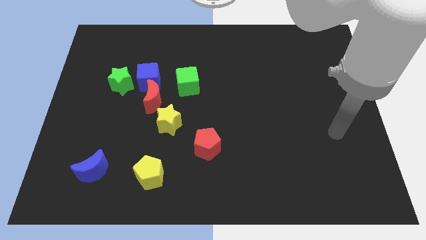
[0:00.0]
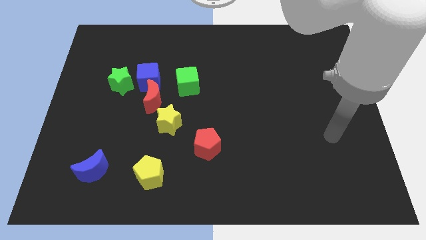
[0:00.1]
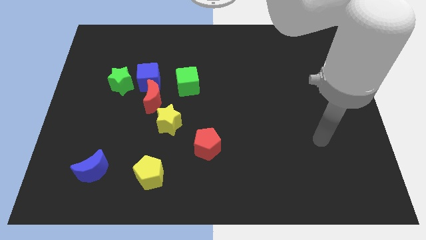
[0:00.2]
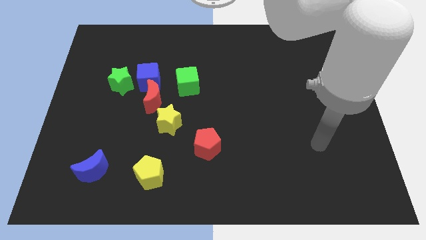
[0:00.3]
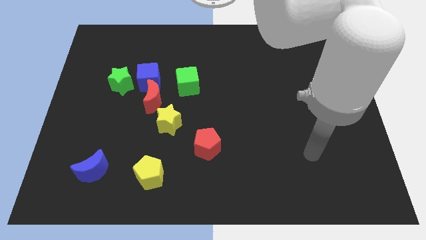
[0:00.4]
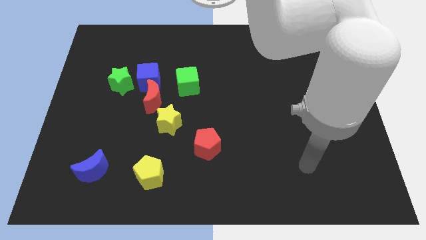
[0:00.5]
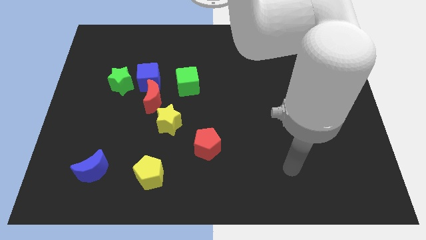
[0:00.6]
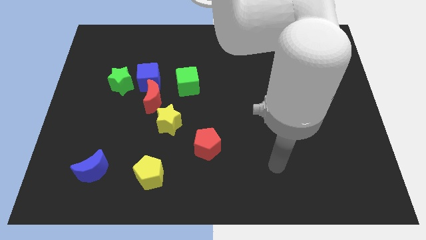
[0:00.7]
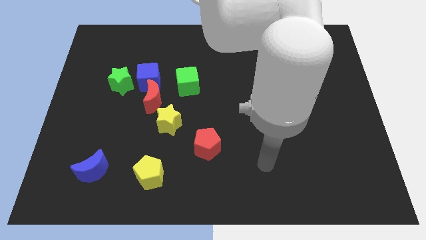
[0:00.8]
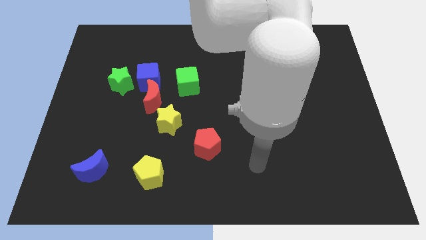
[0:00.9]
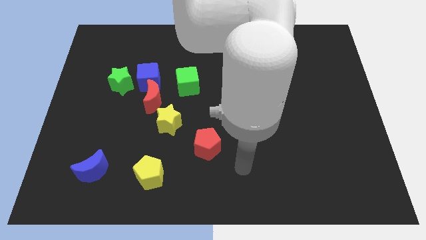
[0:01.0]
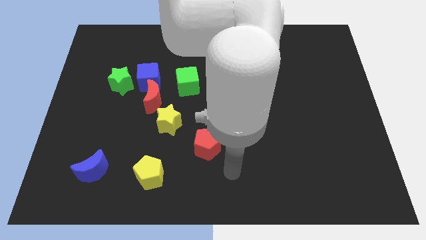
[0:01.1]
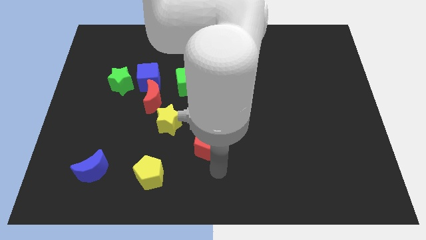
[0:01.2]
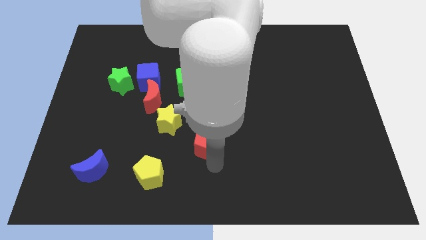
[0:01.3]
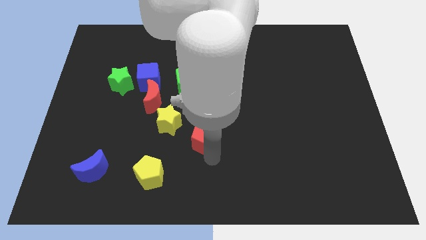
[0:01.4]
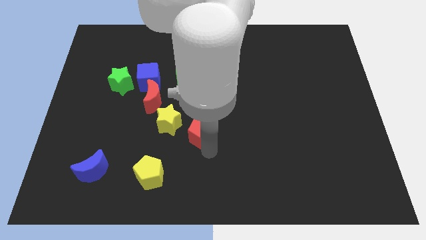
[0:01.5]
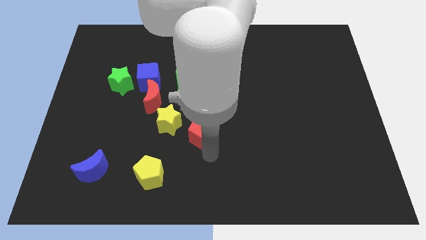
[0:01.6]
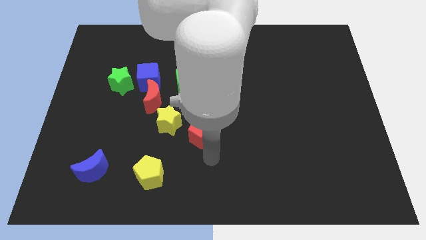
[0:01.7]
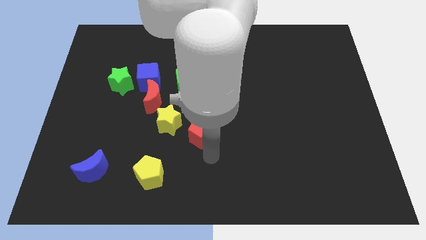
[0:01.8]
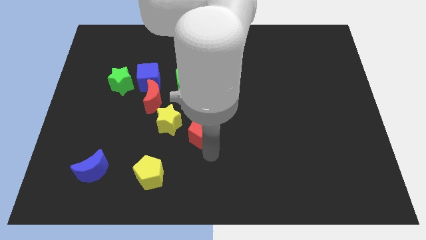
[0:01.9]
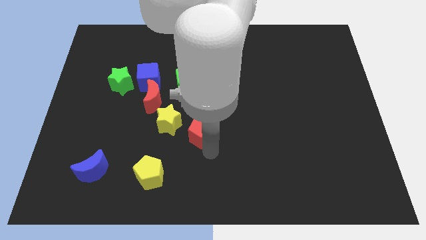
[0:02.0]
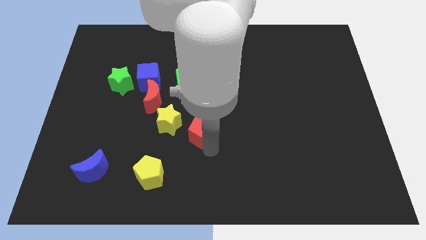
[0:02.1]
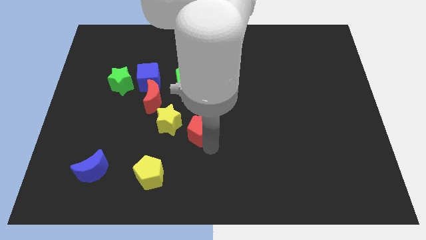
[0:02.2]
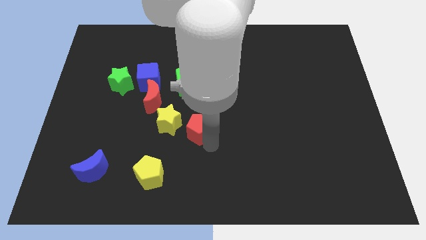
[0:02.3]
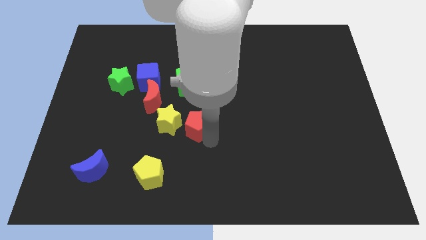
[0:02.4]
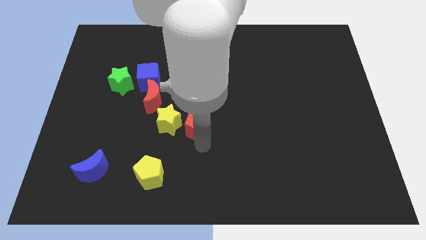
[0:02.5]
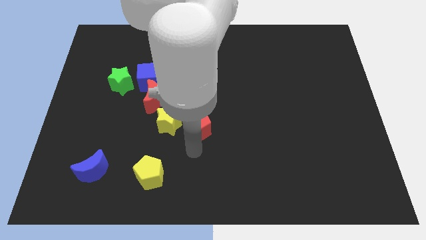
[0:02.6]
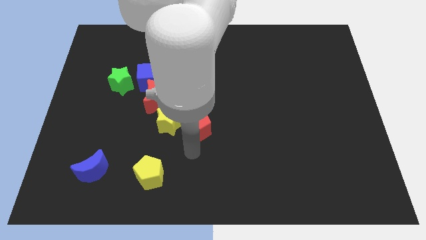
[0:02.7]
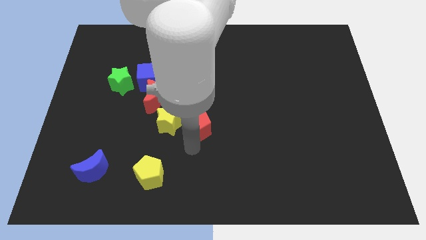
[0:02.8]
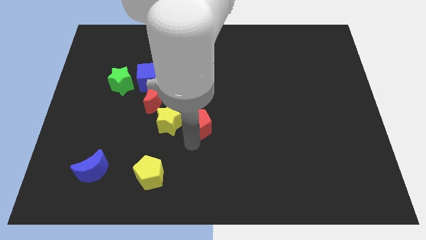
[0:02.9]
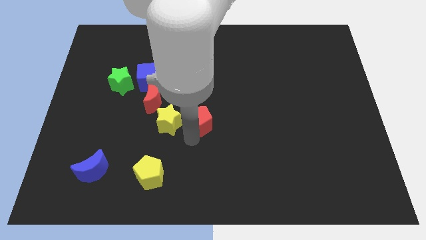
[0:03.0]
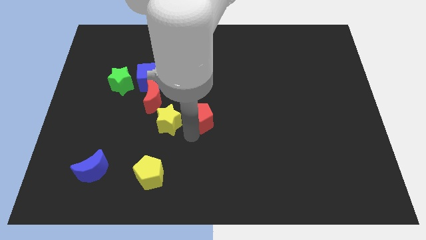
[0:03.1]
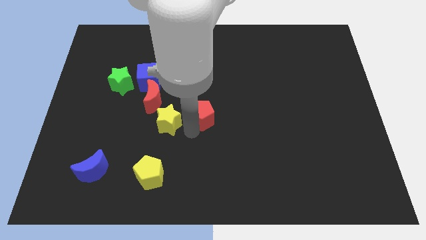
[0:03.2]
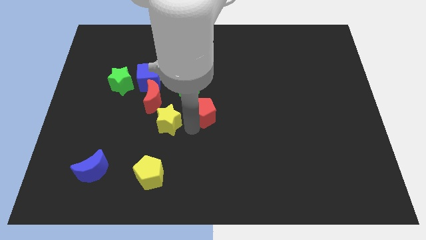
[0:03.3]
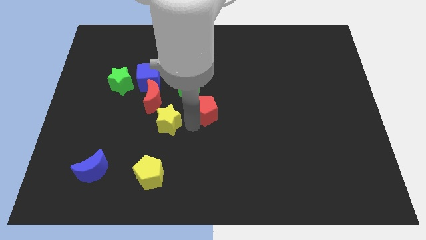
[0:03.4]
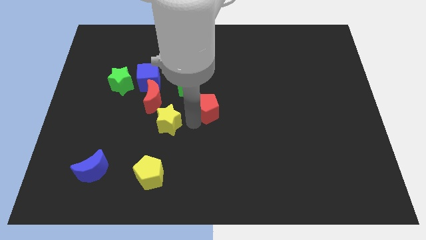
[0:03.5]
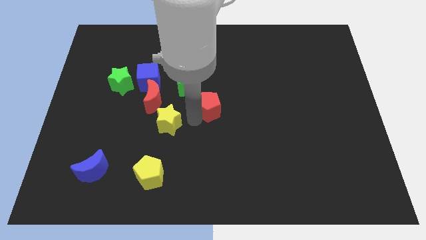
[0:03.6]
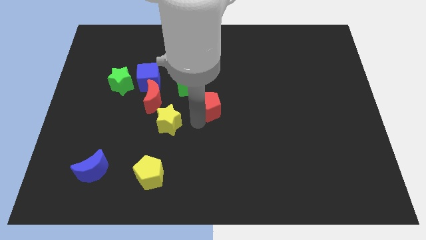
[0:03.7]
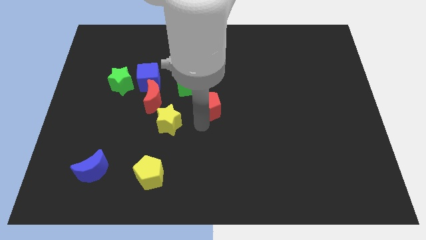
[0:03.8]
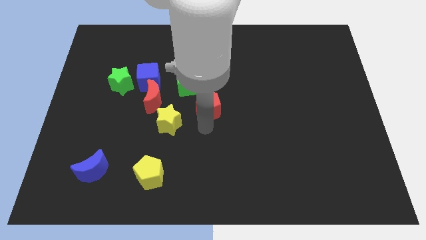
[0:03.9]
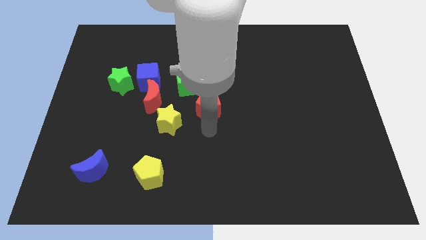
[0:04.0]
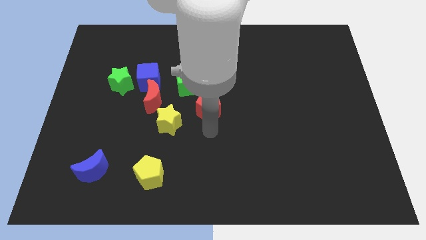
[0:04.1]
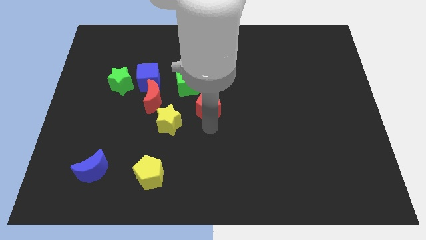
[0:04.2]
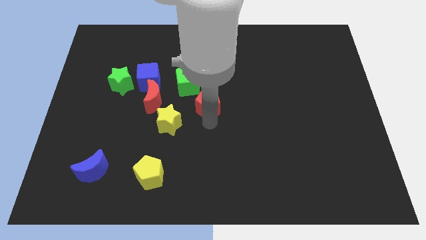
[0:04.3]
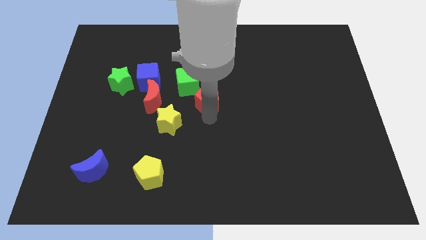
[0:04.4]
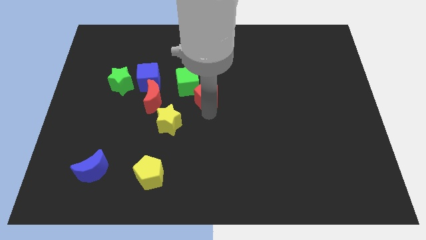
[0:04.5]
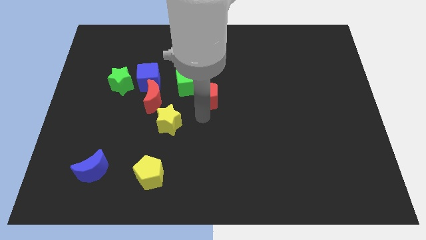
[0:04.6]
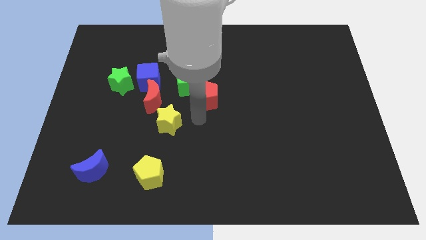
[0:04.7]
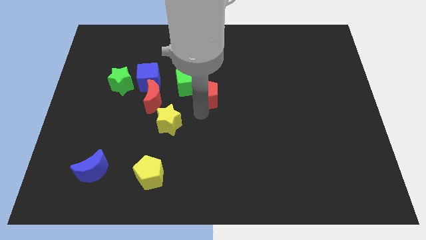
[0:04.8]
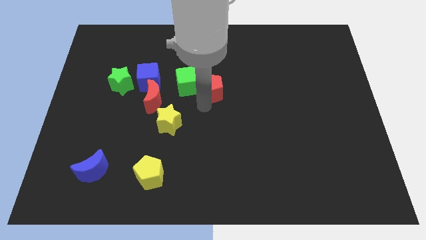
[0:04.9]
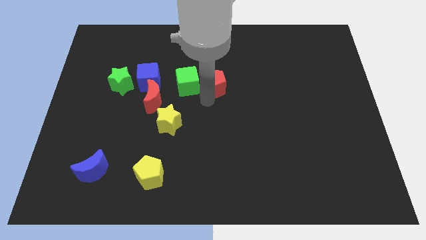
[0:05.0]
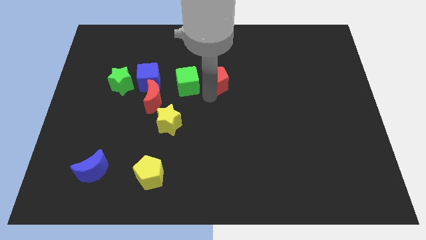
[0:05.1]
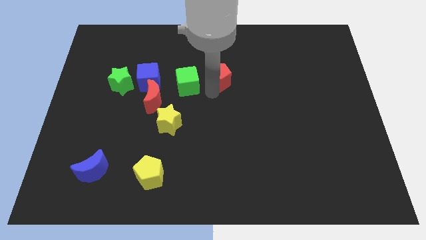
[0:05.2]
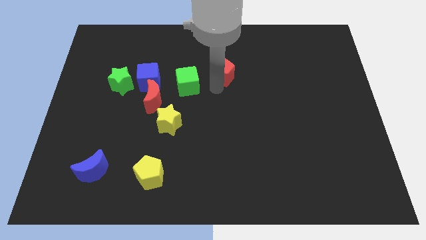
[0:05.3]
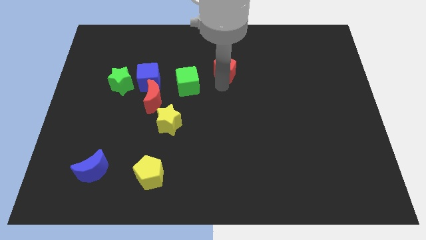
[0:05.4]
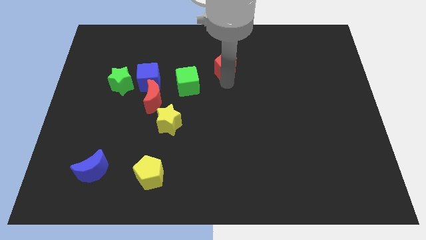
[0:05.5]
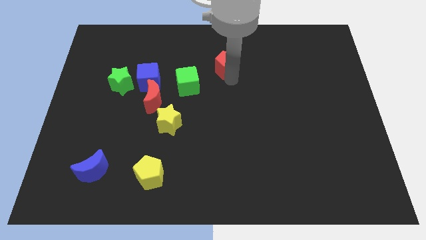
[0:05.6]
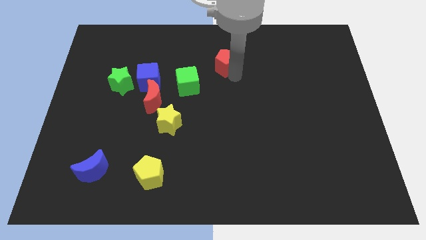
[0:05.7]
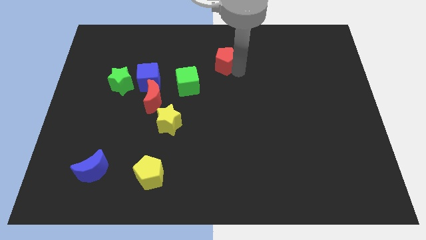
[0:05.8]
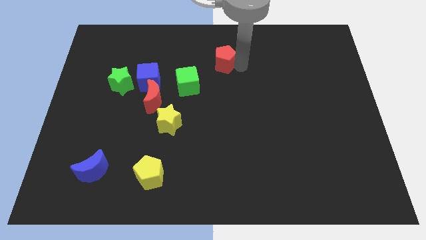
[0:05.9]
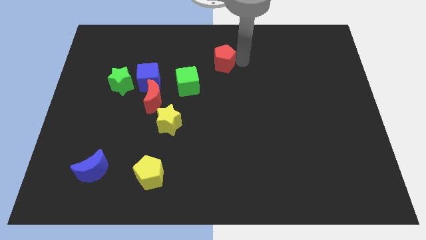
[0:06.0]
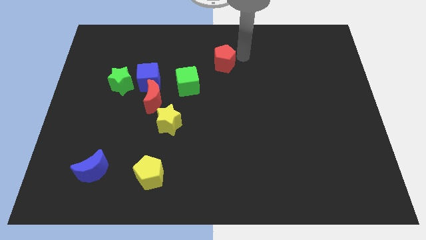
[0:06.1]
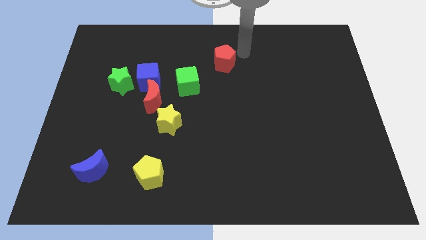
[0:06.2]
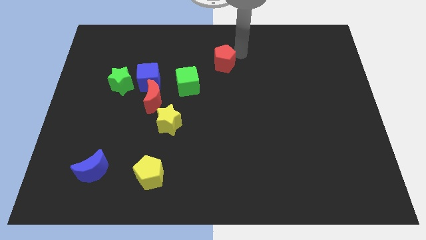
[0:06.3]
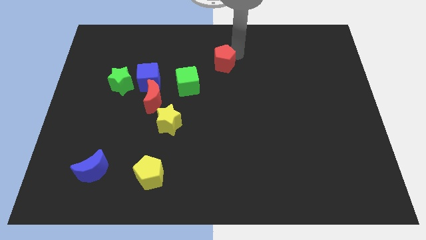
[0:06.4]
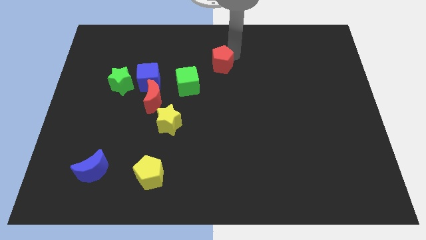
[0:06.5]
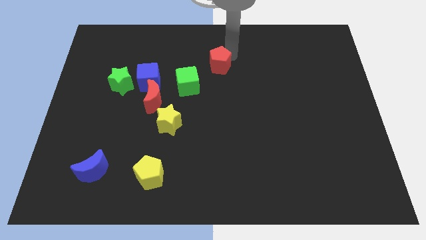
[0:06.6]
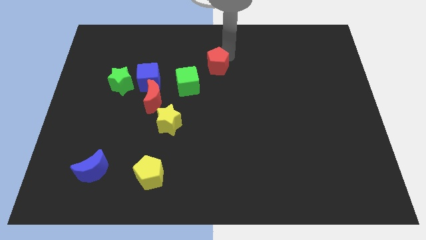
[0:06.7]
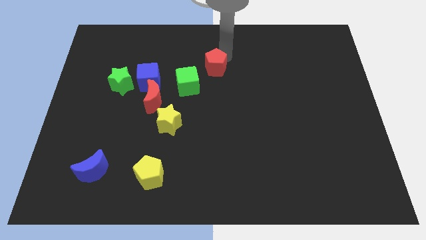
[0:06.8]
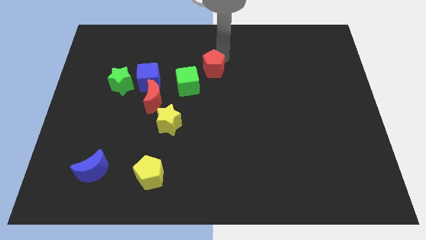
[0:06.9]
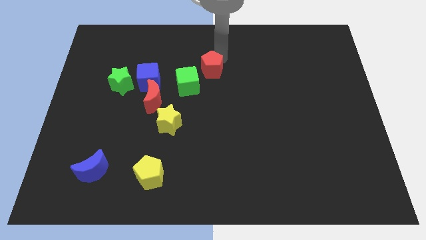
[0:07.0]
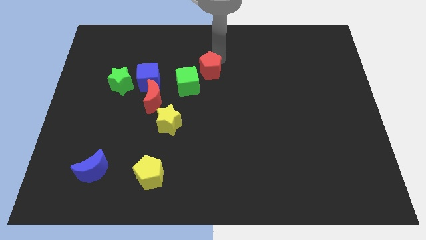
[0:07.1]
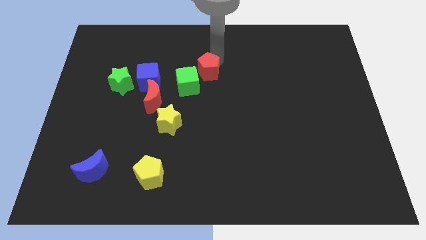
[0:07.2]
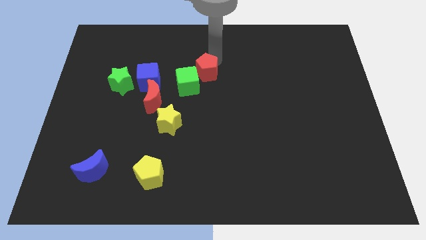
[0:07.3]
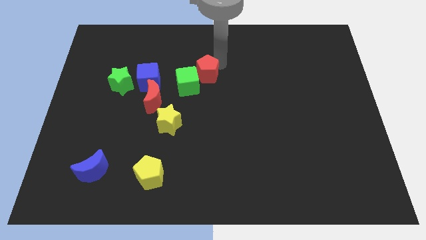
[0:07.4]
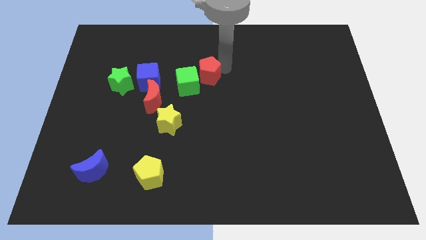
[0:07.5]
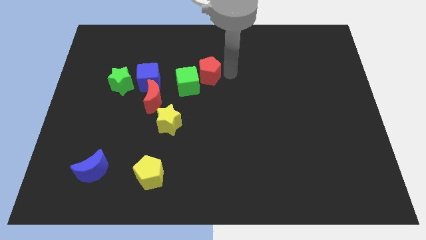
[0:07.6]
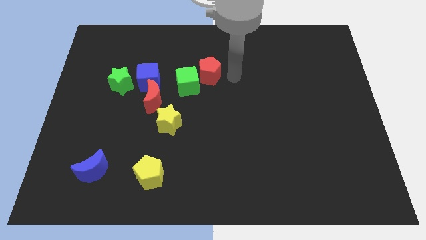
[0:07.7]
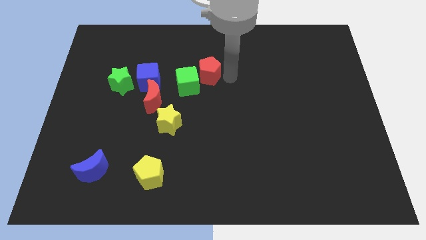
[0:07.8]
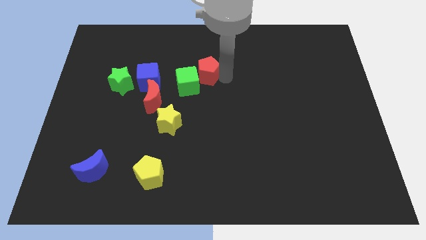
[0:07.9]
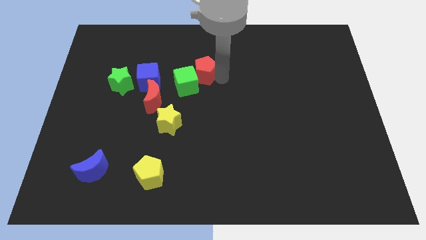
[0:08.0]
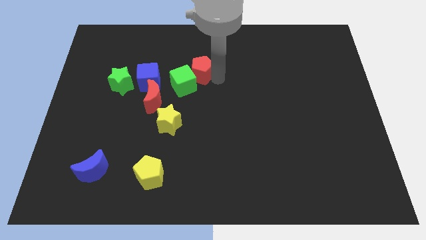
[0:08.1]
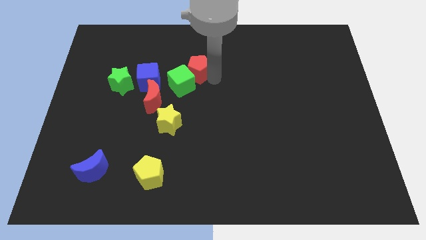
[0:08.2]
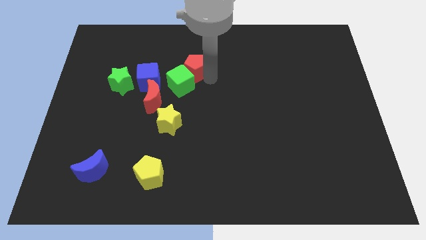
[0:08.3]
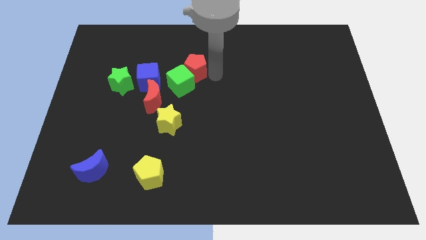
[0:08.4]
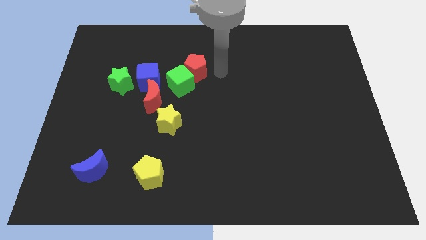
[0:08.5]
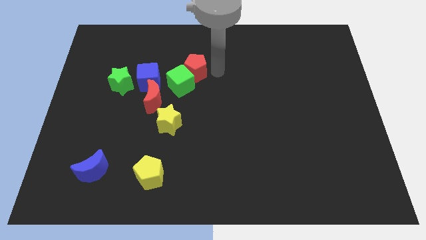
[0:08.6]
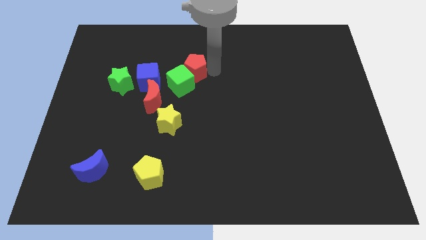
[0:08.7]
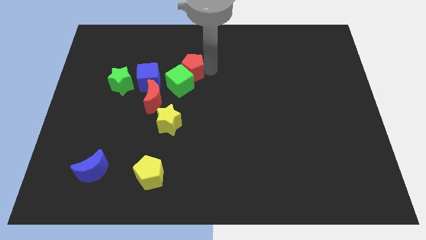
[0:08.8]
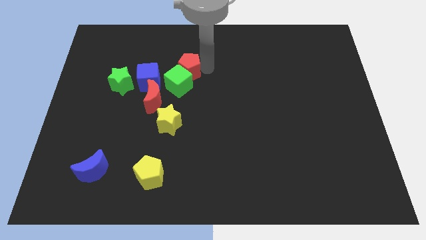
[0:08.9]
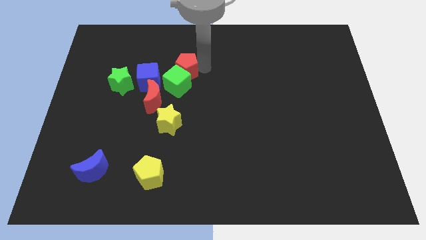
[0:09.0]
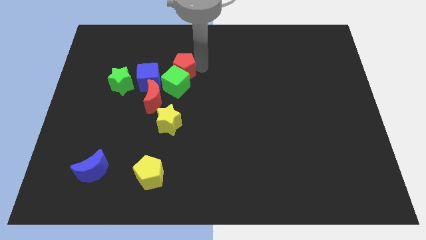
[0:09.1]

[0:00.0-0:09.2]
move the red pentagon to the top left side of the green cube
